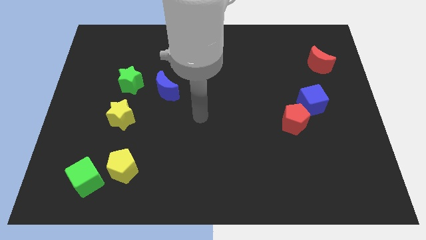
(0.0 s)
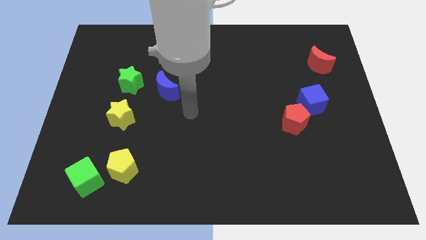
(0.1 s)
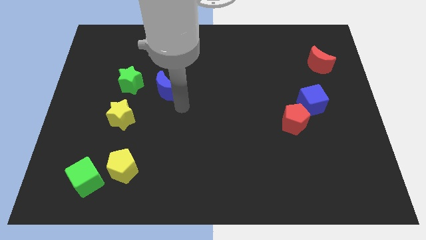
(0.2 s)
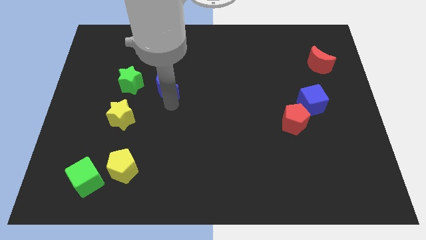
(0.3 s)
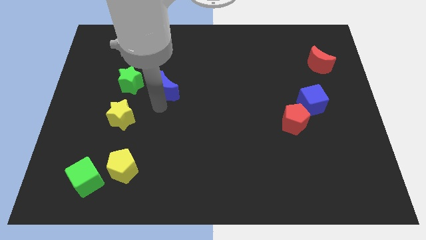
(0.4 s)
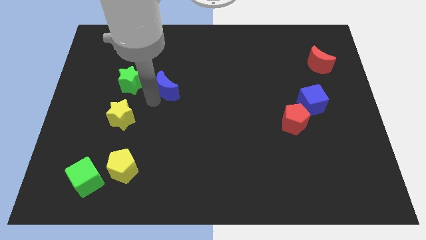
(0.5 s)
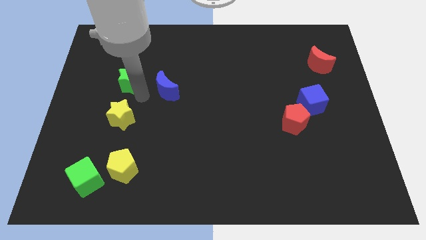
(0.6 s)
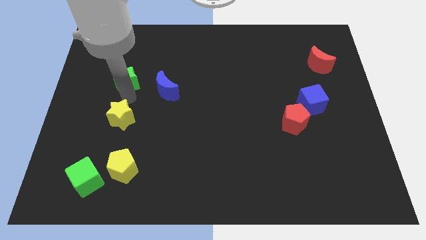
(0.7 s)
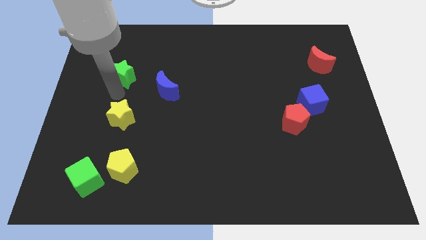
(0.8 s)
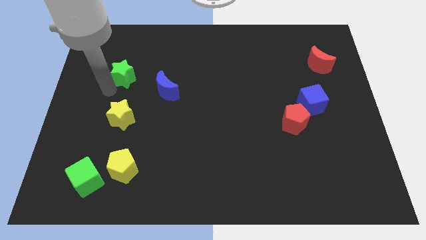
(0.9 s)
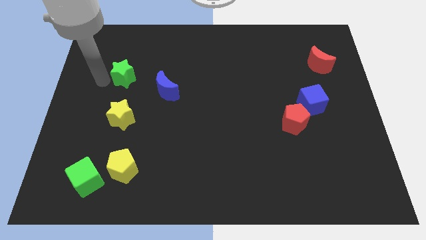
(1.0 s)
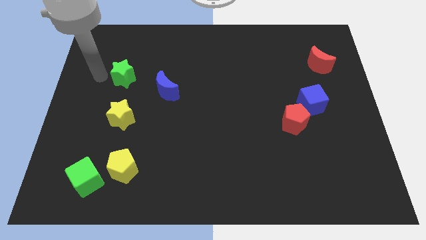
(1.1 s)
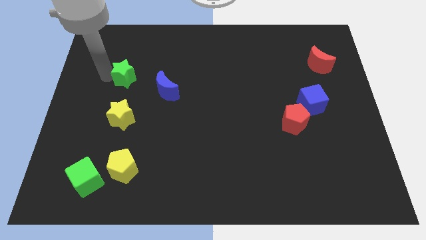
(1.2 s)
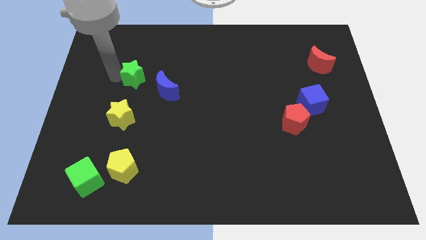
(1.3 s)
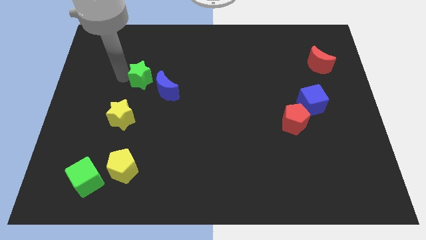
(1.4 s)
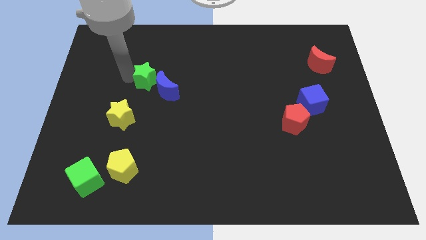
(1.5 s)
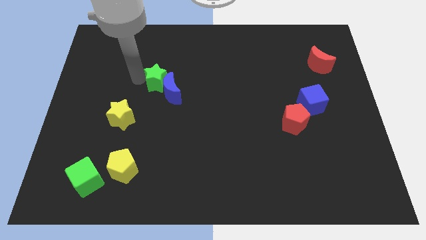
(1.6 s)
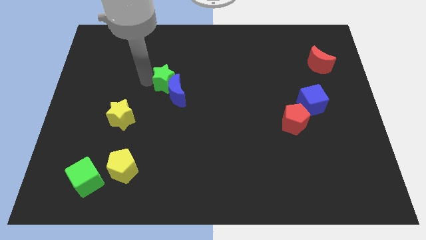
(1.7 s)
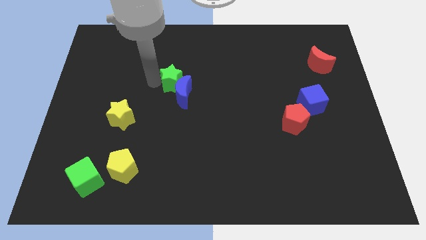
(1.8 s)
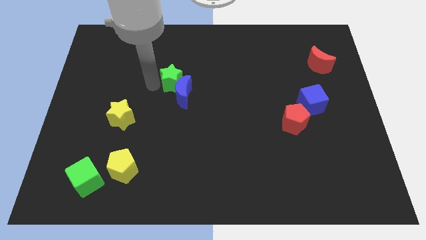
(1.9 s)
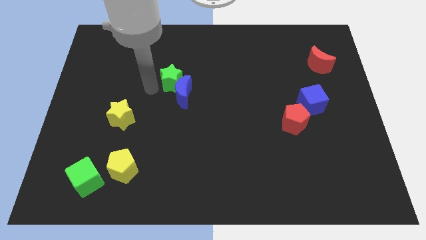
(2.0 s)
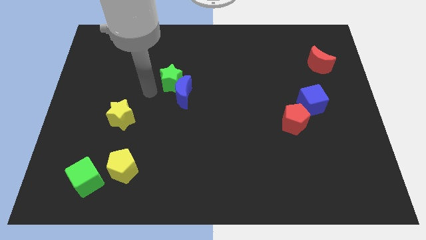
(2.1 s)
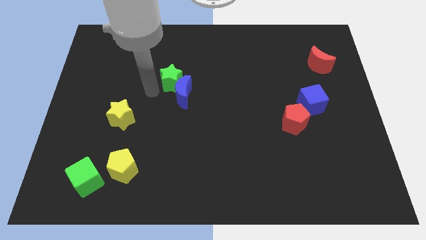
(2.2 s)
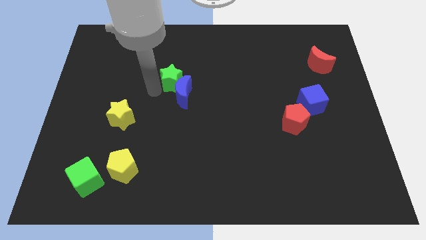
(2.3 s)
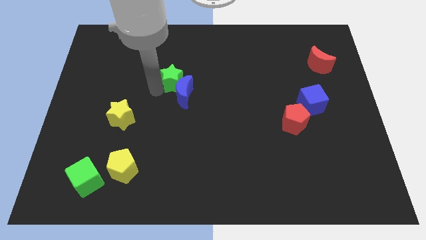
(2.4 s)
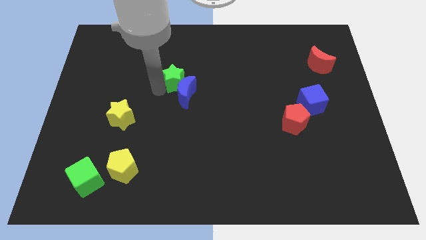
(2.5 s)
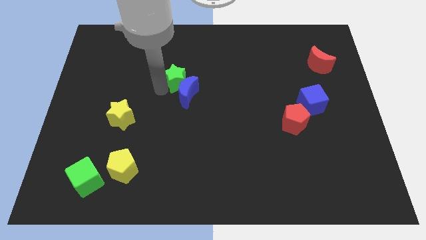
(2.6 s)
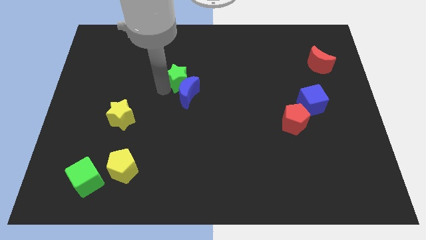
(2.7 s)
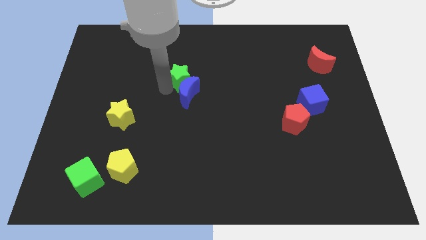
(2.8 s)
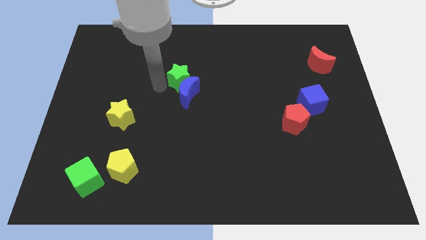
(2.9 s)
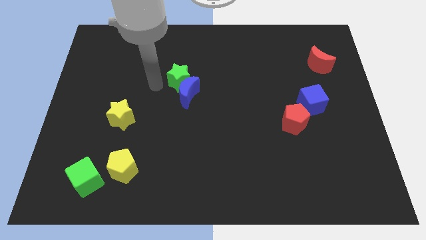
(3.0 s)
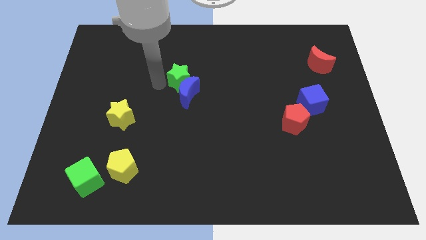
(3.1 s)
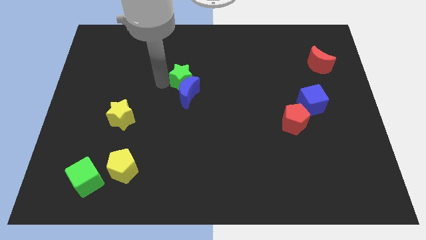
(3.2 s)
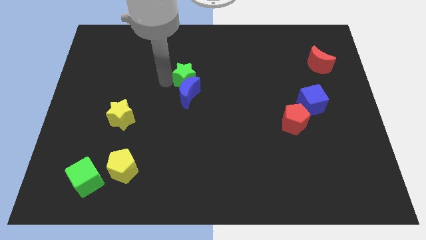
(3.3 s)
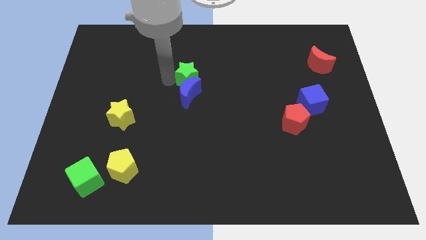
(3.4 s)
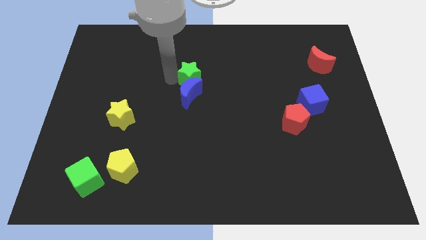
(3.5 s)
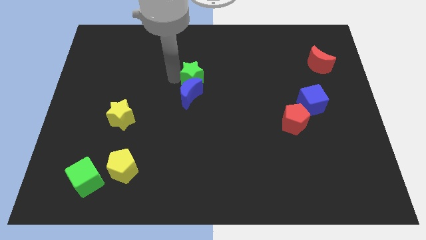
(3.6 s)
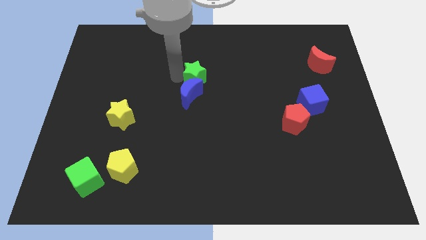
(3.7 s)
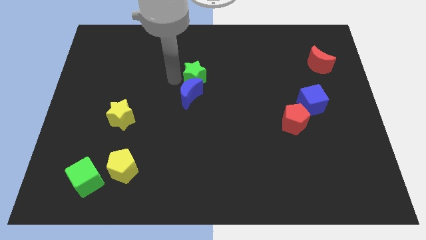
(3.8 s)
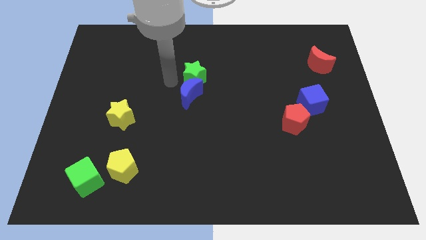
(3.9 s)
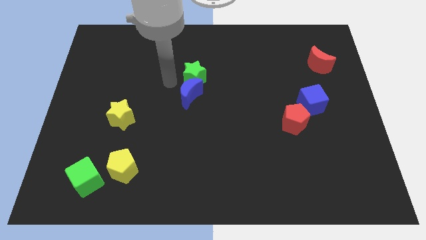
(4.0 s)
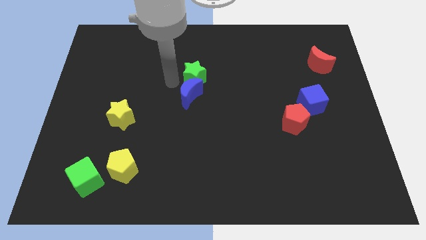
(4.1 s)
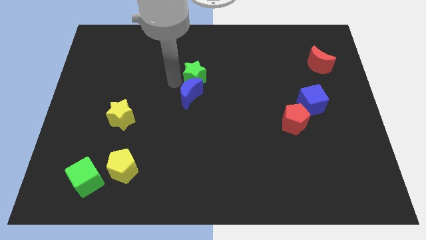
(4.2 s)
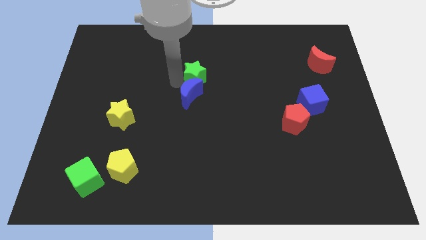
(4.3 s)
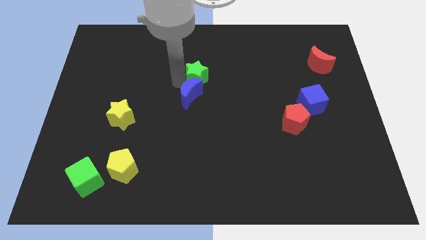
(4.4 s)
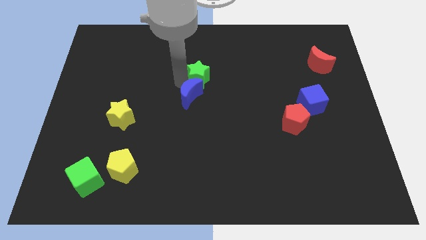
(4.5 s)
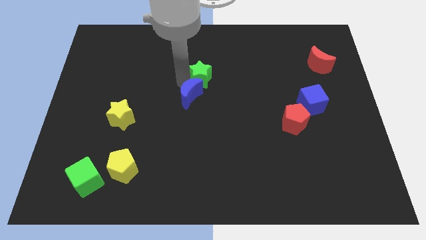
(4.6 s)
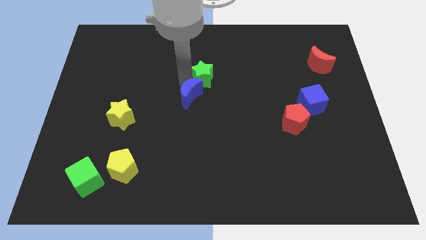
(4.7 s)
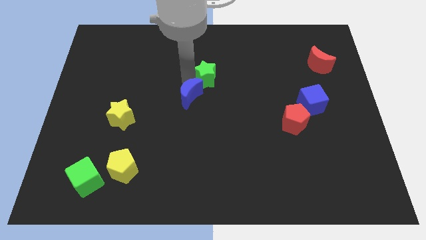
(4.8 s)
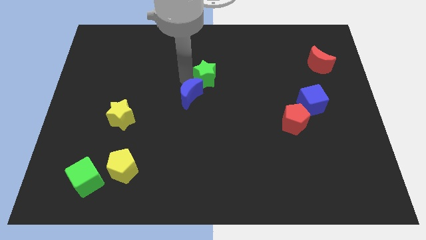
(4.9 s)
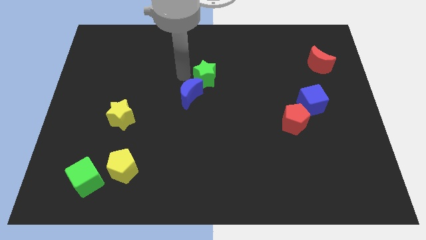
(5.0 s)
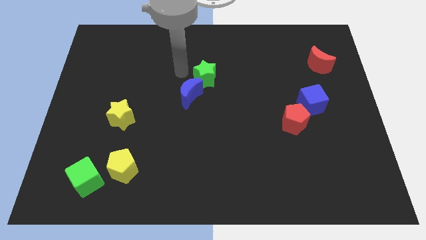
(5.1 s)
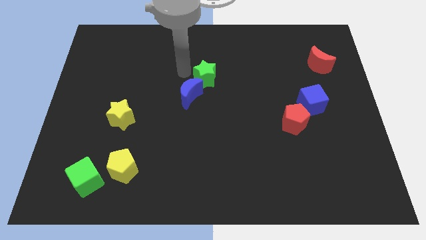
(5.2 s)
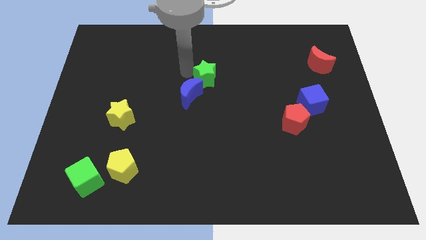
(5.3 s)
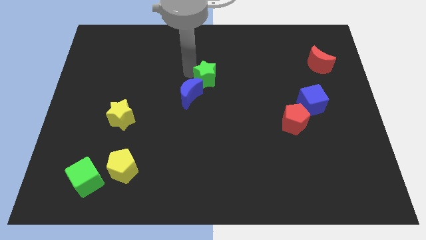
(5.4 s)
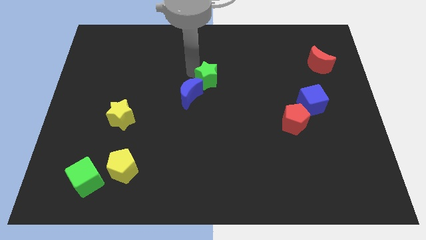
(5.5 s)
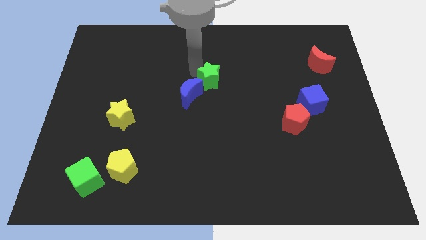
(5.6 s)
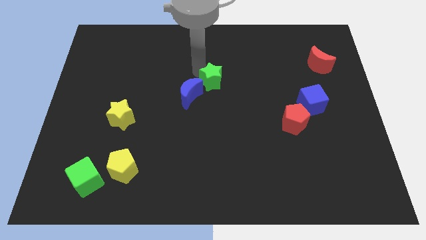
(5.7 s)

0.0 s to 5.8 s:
push the green star to the right

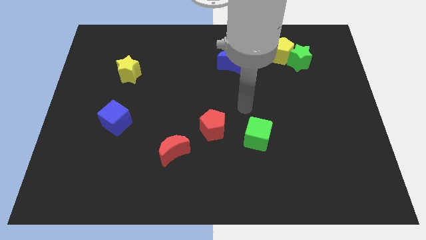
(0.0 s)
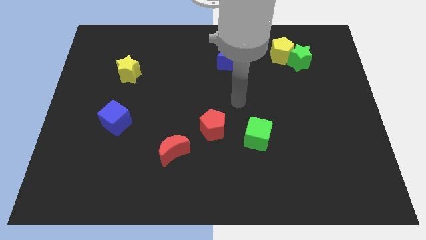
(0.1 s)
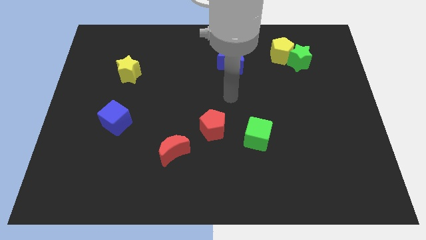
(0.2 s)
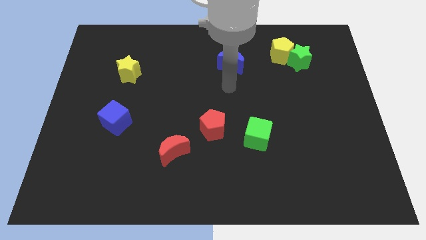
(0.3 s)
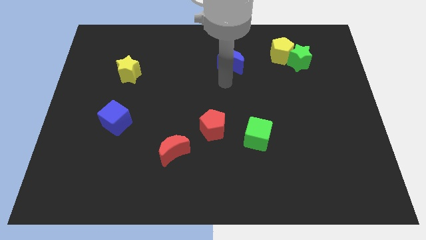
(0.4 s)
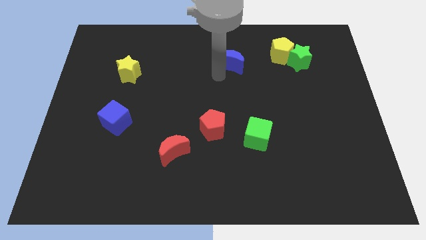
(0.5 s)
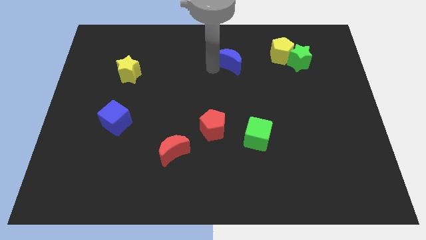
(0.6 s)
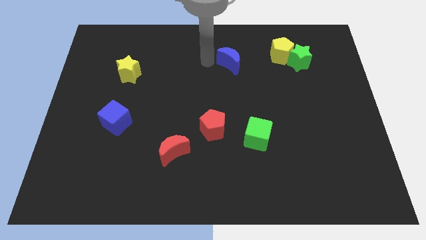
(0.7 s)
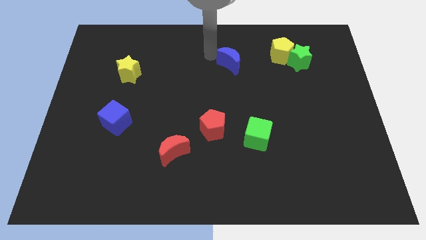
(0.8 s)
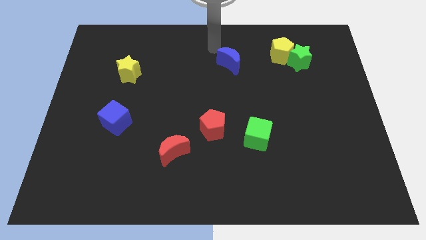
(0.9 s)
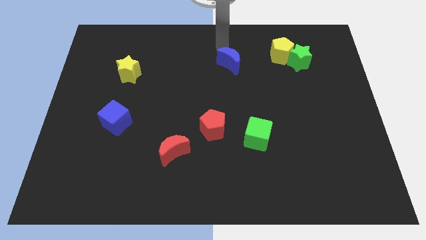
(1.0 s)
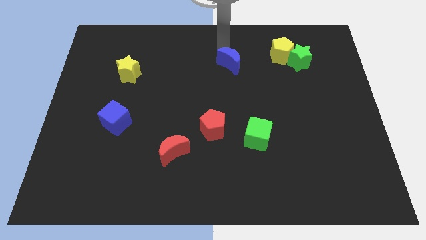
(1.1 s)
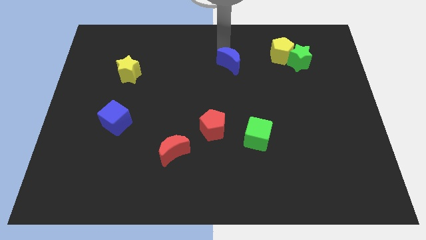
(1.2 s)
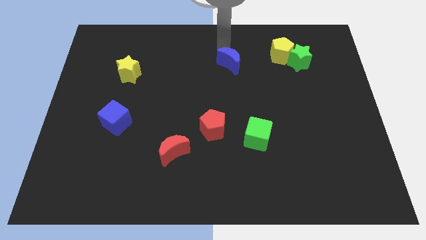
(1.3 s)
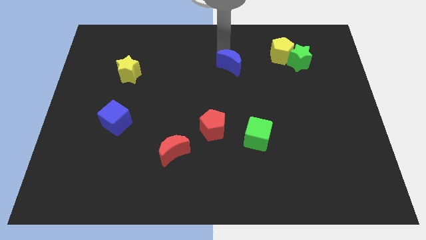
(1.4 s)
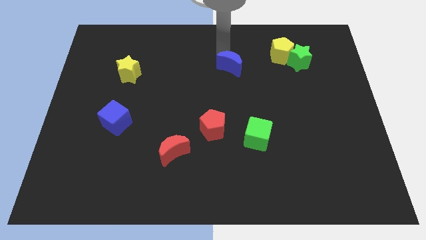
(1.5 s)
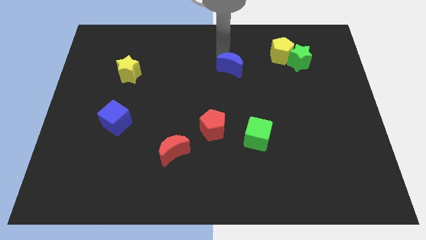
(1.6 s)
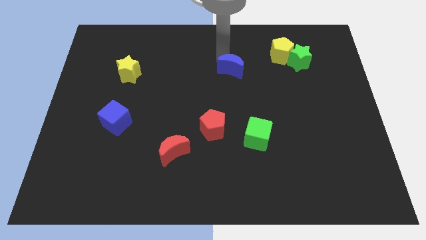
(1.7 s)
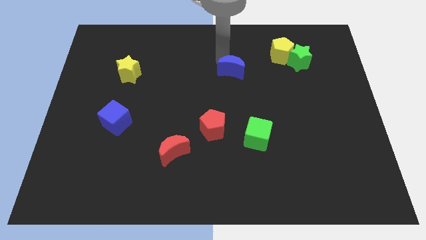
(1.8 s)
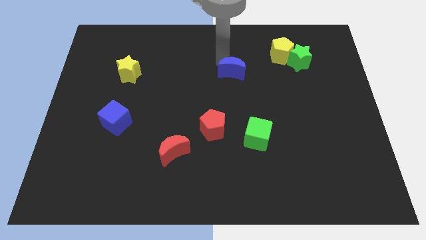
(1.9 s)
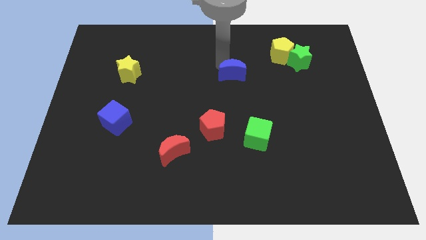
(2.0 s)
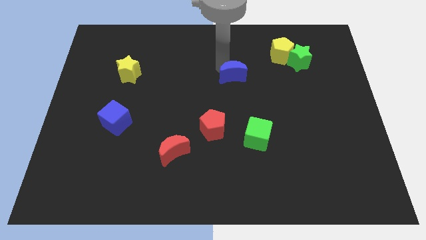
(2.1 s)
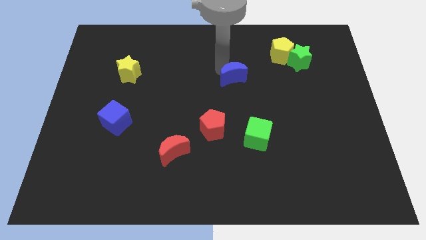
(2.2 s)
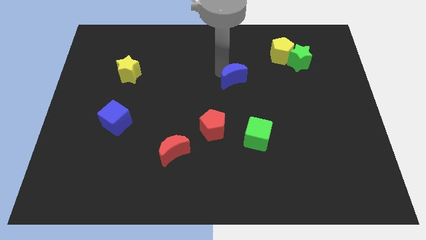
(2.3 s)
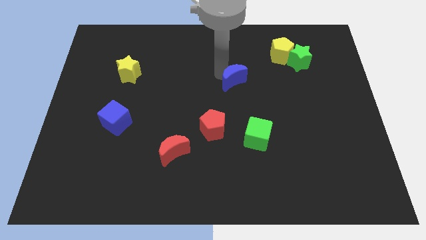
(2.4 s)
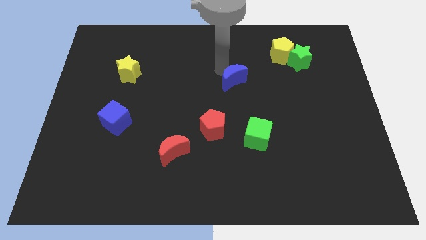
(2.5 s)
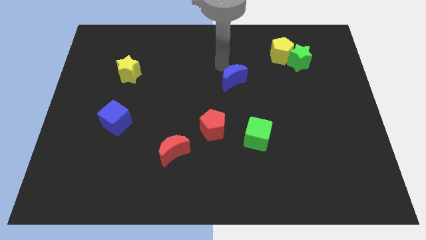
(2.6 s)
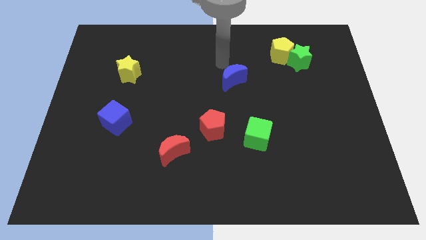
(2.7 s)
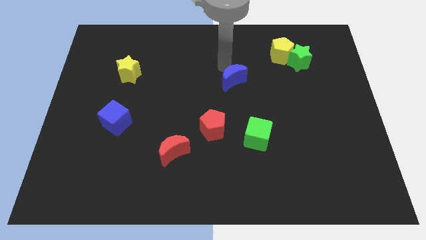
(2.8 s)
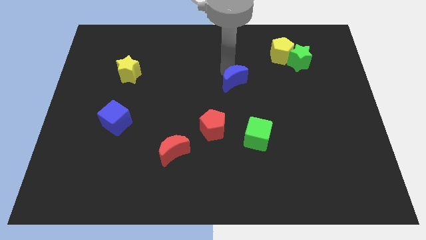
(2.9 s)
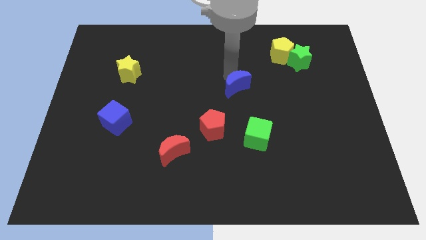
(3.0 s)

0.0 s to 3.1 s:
move the blue moon down somewhat
